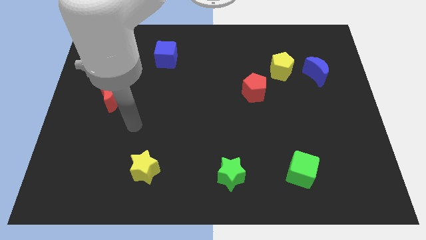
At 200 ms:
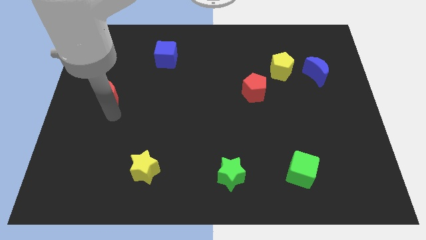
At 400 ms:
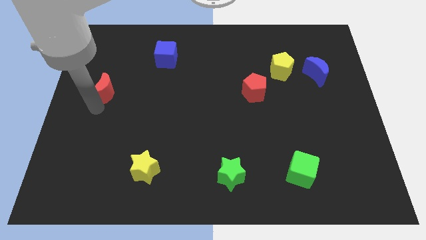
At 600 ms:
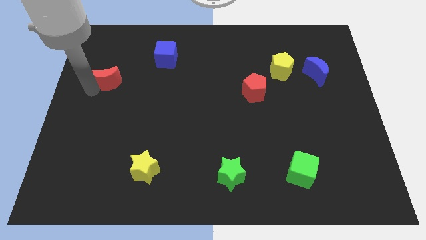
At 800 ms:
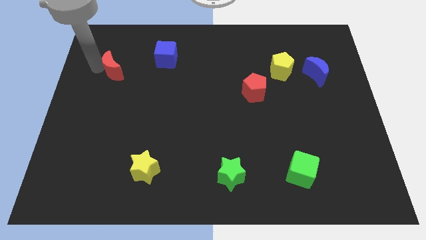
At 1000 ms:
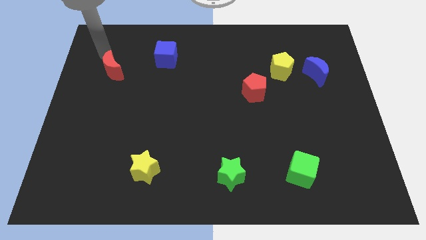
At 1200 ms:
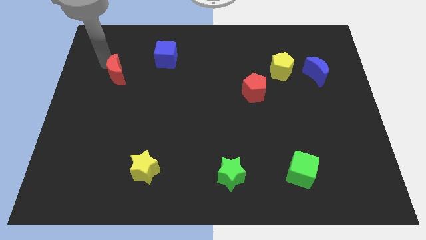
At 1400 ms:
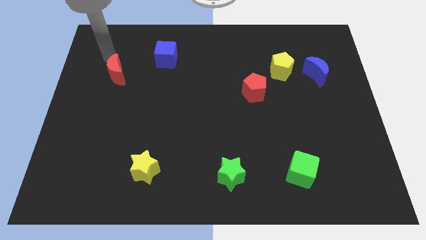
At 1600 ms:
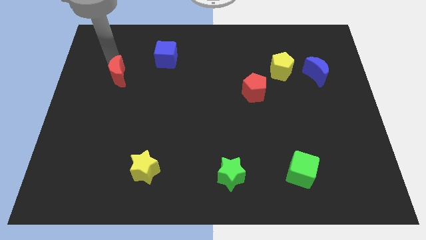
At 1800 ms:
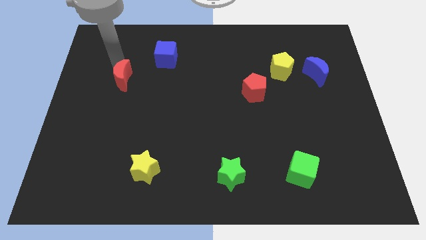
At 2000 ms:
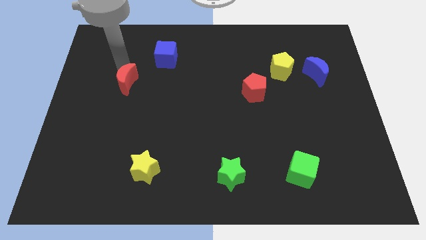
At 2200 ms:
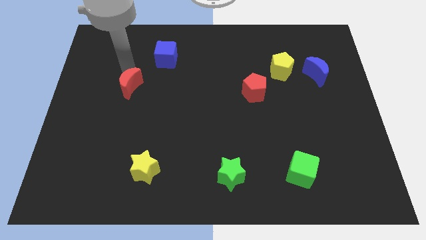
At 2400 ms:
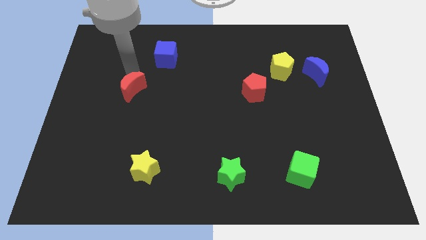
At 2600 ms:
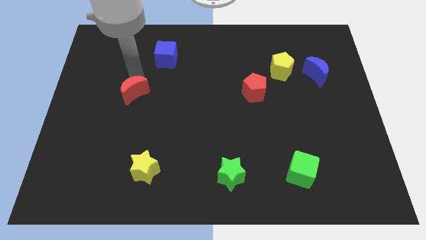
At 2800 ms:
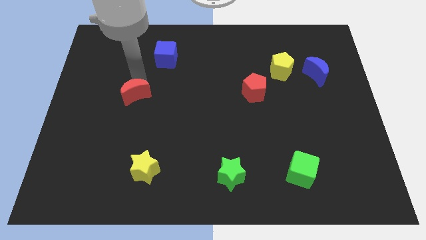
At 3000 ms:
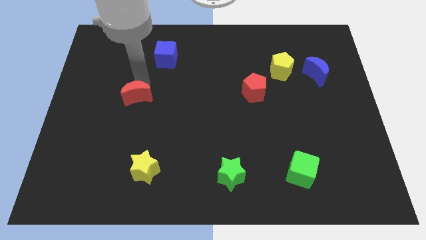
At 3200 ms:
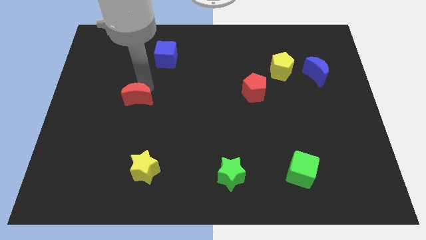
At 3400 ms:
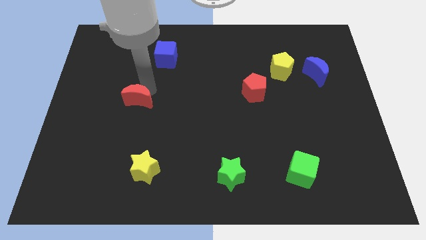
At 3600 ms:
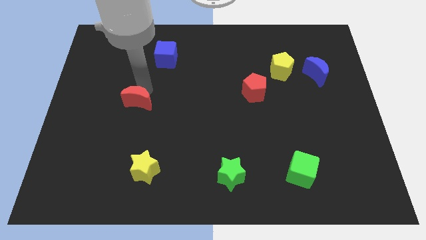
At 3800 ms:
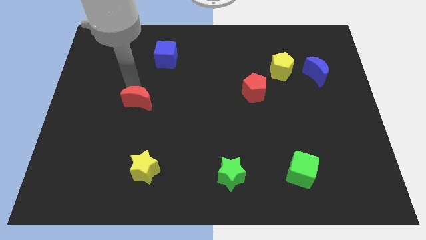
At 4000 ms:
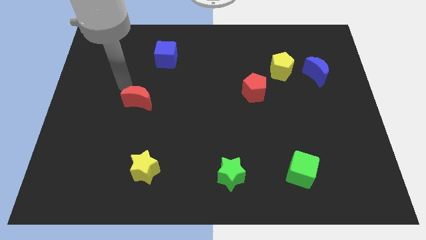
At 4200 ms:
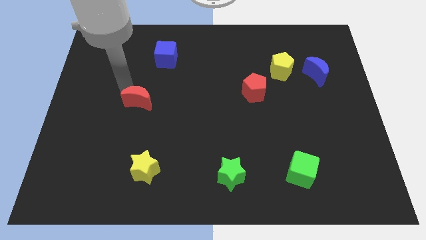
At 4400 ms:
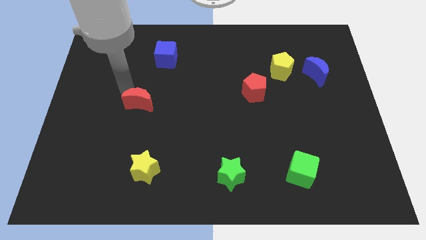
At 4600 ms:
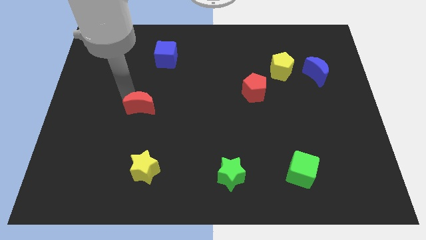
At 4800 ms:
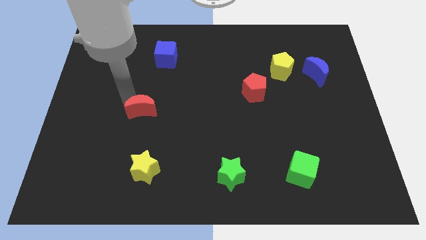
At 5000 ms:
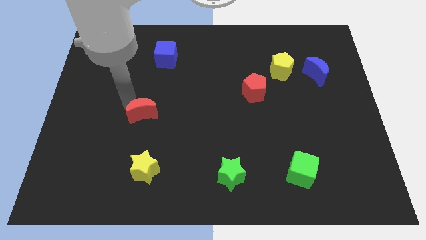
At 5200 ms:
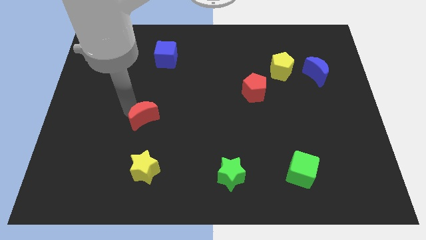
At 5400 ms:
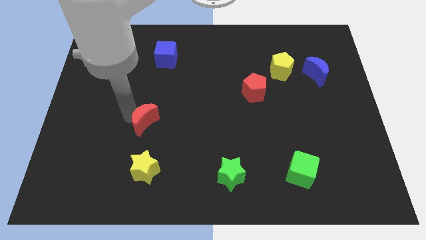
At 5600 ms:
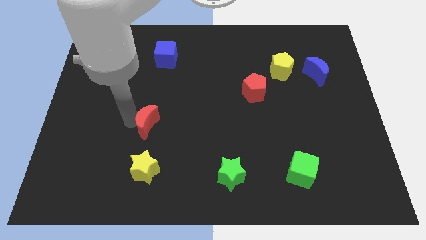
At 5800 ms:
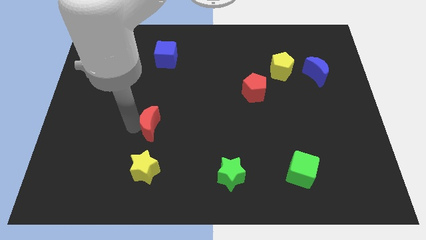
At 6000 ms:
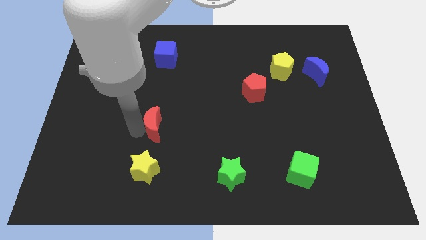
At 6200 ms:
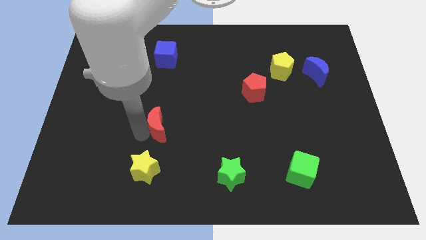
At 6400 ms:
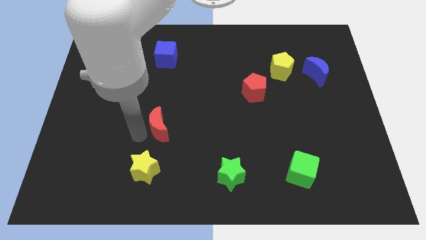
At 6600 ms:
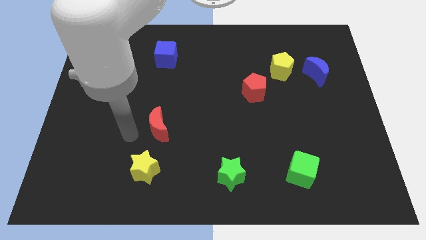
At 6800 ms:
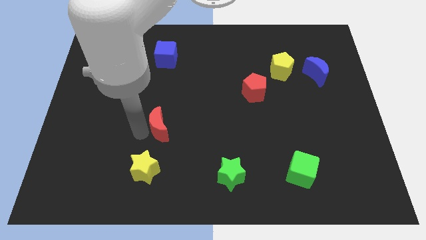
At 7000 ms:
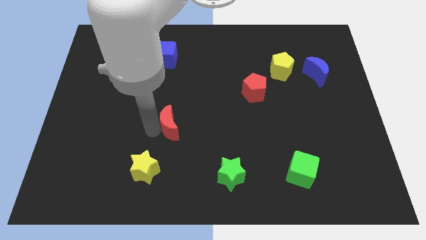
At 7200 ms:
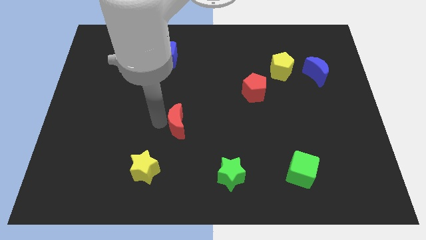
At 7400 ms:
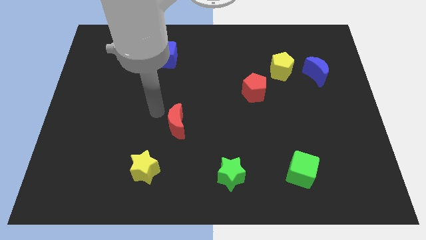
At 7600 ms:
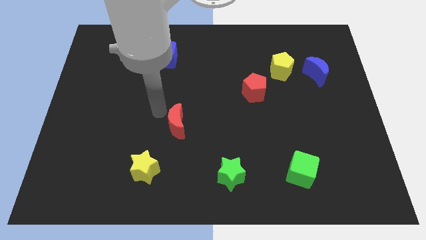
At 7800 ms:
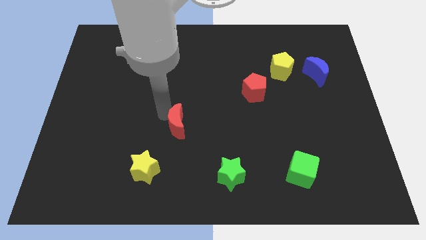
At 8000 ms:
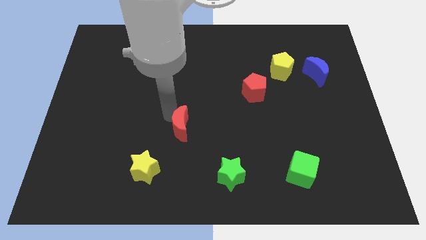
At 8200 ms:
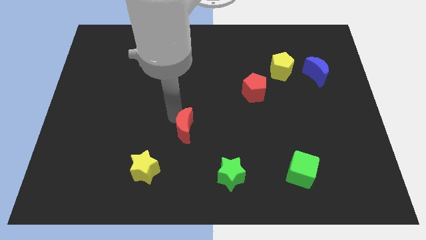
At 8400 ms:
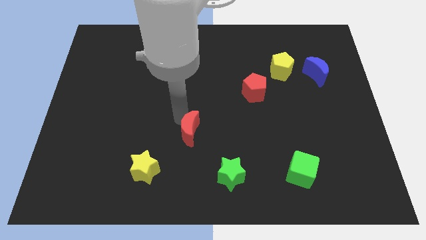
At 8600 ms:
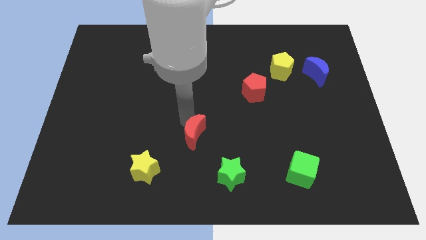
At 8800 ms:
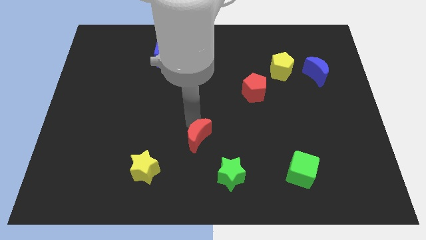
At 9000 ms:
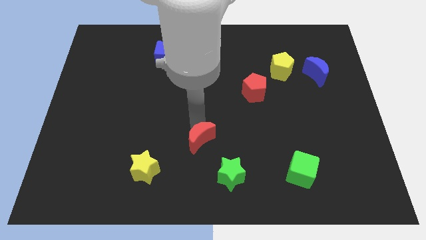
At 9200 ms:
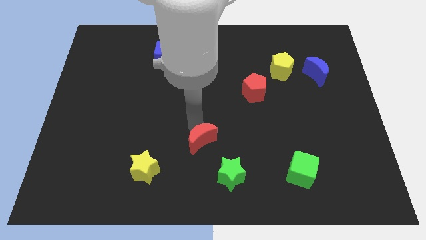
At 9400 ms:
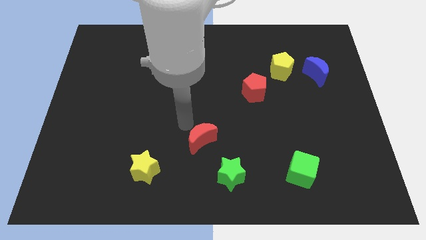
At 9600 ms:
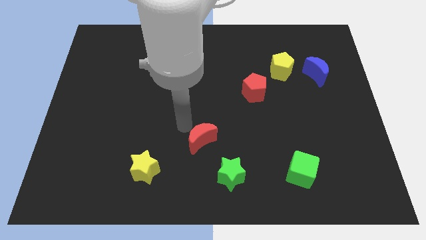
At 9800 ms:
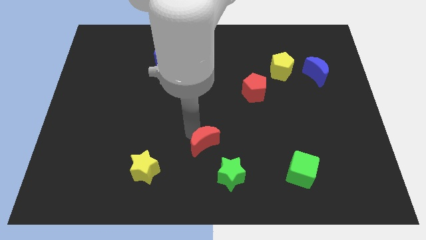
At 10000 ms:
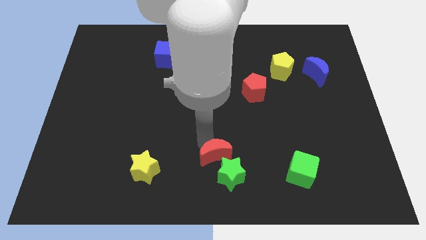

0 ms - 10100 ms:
push the red moon next to the green star

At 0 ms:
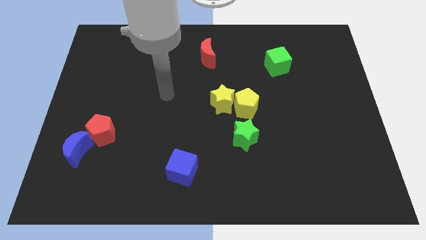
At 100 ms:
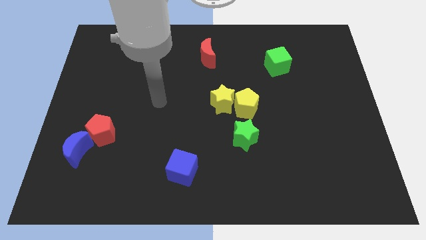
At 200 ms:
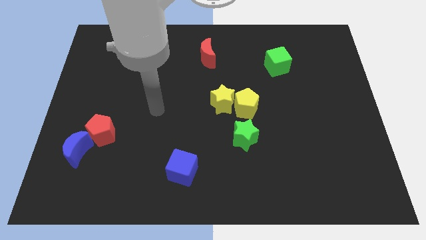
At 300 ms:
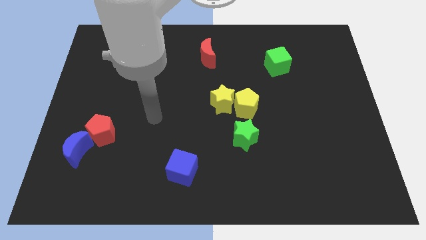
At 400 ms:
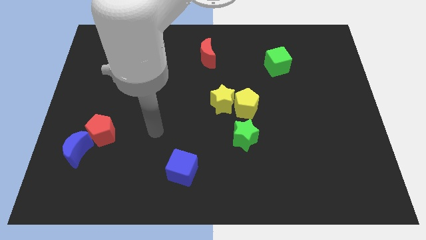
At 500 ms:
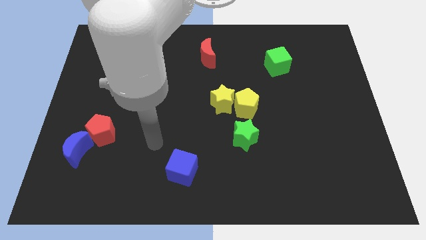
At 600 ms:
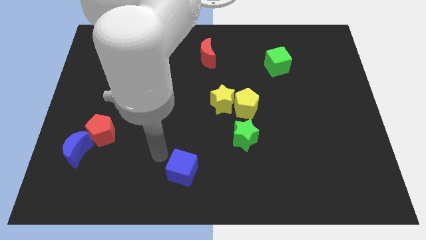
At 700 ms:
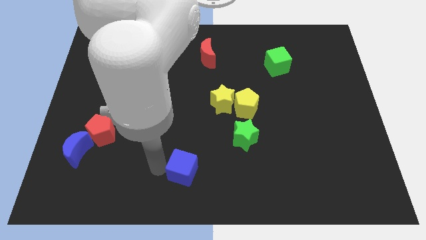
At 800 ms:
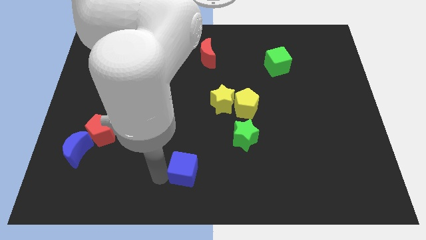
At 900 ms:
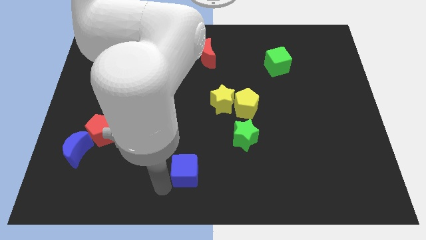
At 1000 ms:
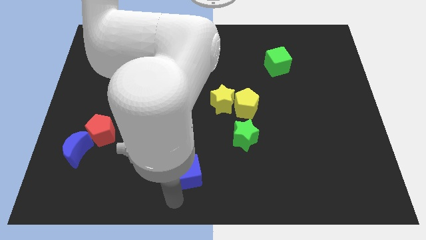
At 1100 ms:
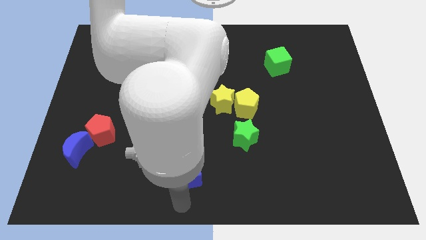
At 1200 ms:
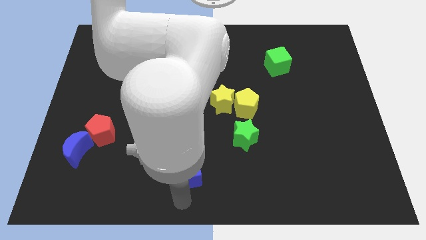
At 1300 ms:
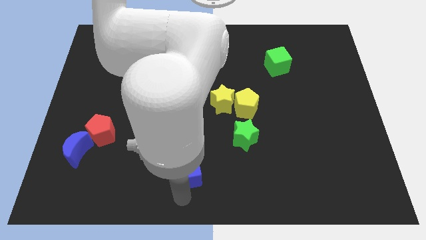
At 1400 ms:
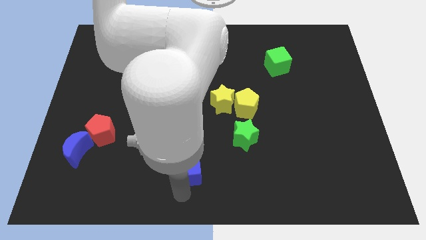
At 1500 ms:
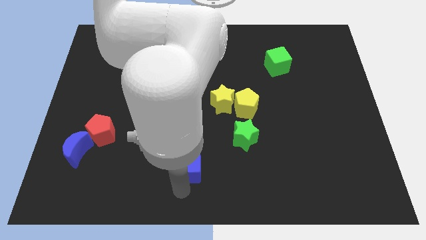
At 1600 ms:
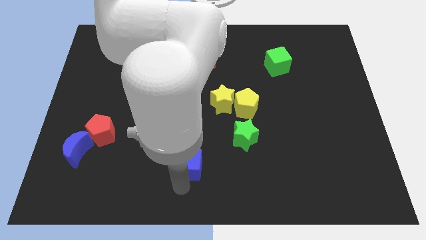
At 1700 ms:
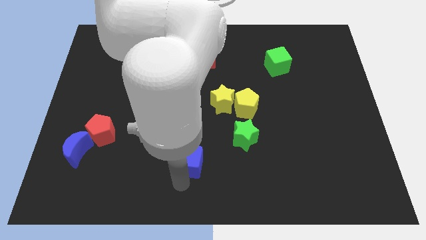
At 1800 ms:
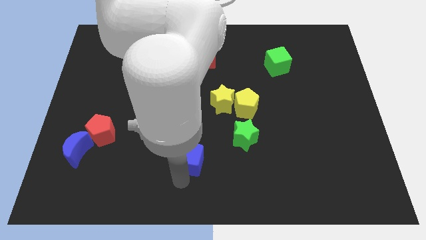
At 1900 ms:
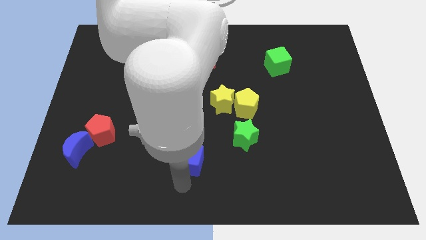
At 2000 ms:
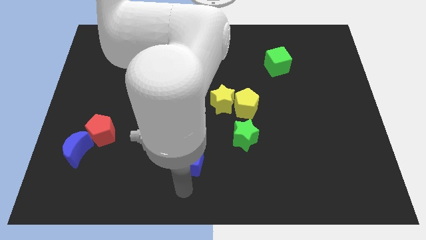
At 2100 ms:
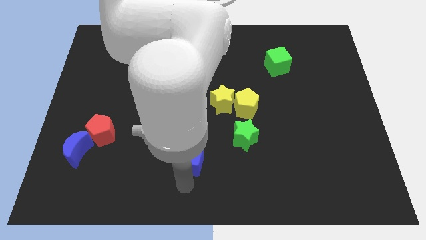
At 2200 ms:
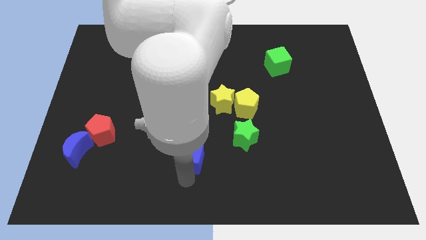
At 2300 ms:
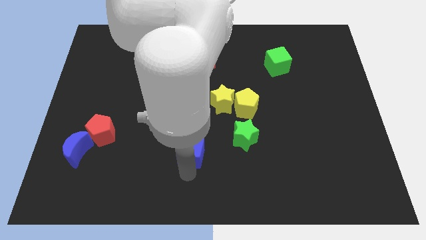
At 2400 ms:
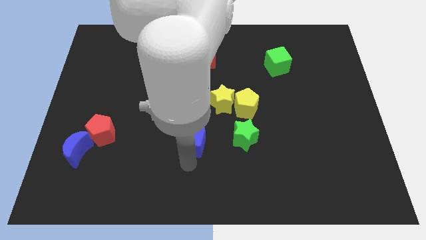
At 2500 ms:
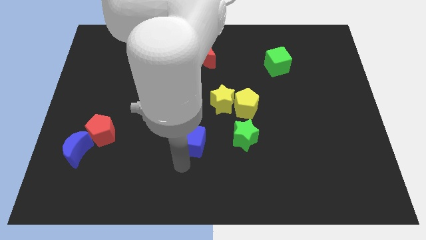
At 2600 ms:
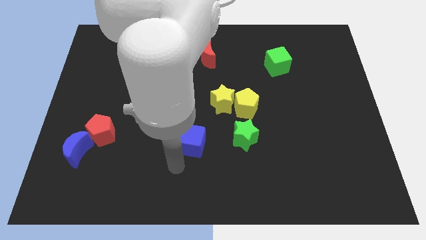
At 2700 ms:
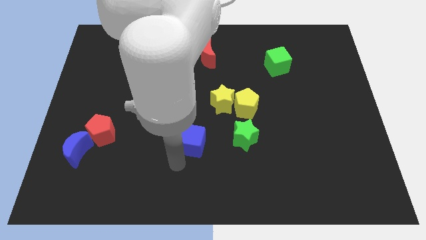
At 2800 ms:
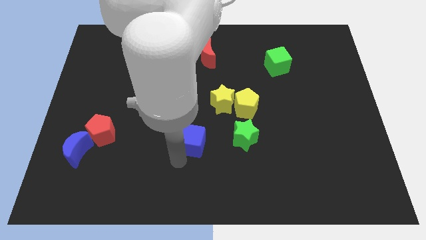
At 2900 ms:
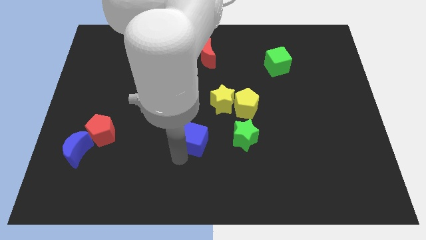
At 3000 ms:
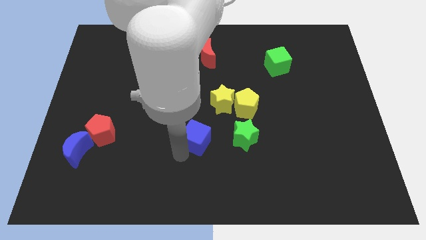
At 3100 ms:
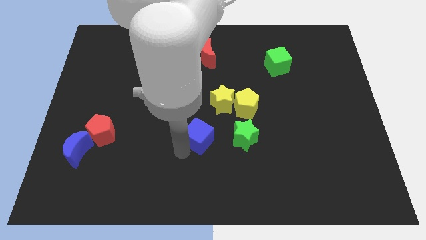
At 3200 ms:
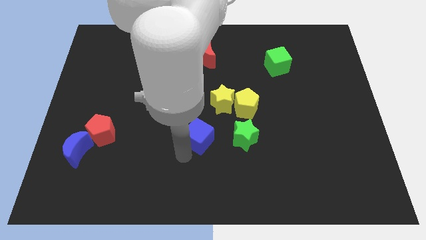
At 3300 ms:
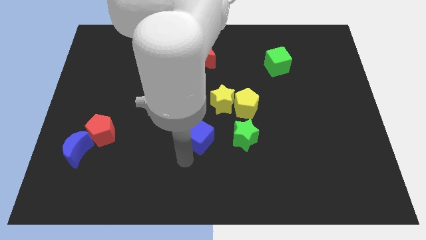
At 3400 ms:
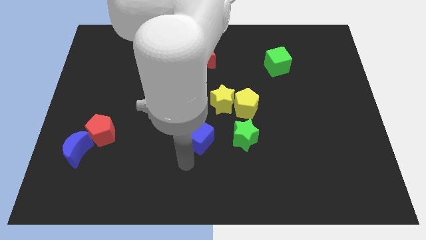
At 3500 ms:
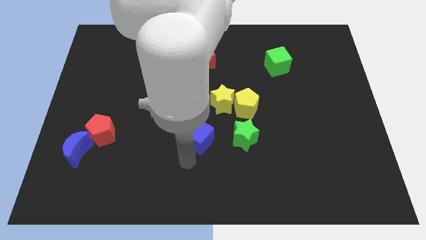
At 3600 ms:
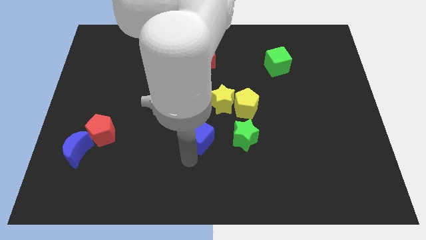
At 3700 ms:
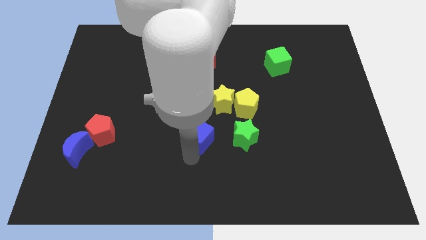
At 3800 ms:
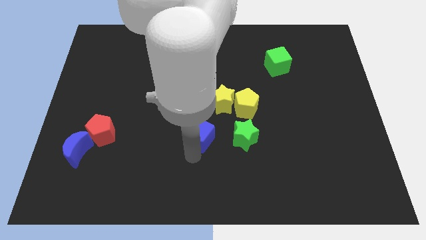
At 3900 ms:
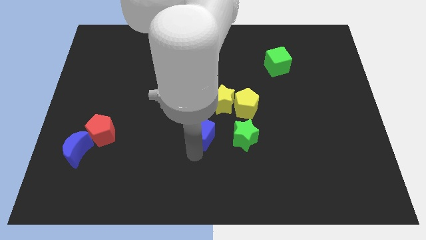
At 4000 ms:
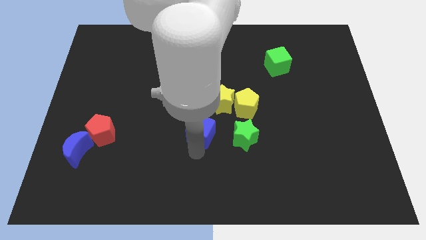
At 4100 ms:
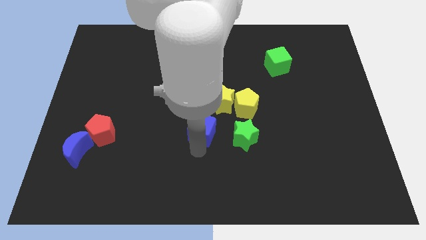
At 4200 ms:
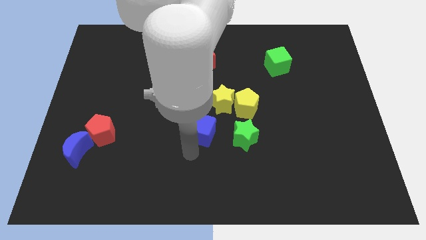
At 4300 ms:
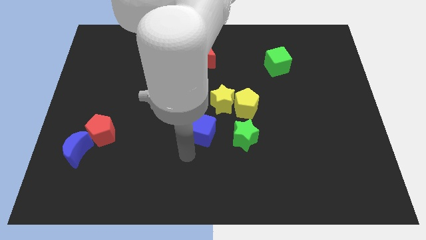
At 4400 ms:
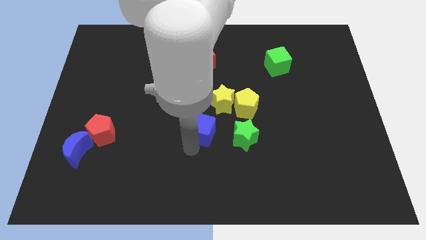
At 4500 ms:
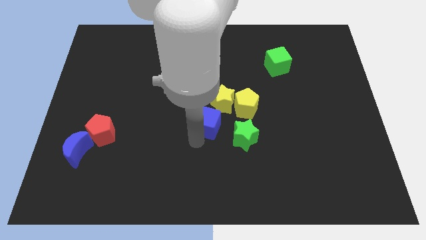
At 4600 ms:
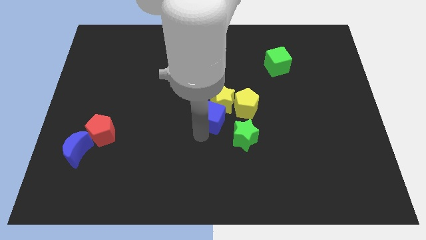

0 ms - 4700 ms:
push the blue cube to the yellow star
